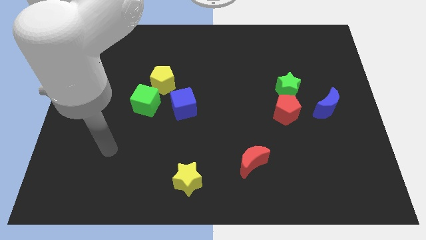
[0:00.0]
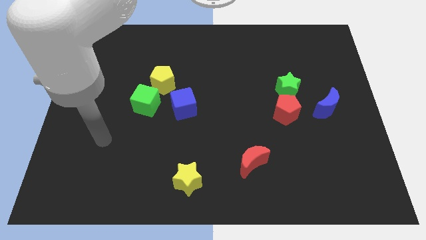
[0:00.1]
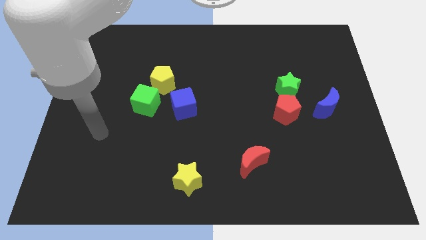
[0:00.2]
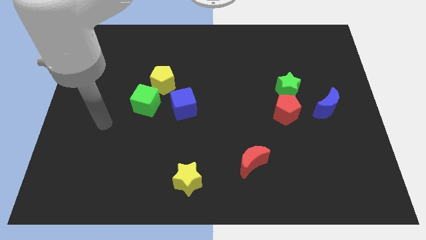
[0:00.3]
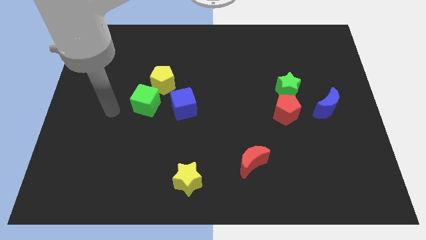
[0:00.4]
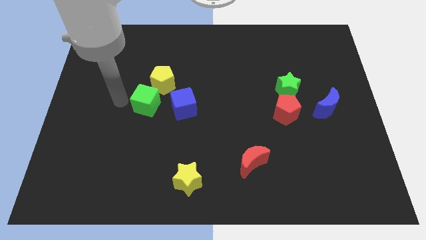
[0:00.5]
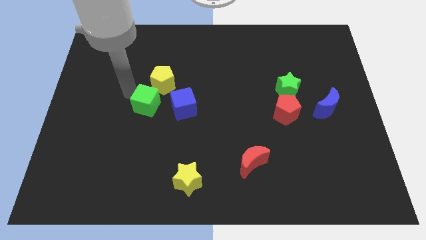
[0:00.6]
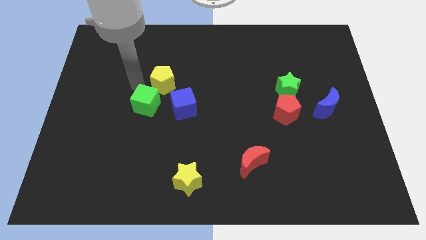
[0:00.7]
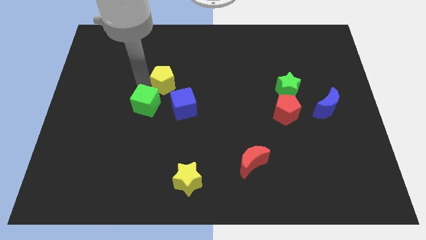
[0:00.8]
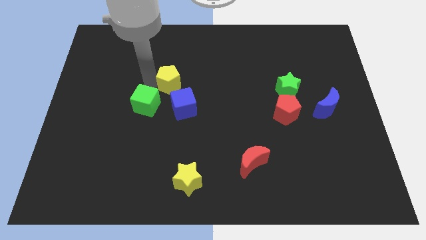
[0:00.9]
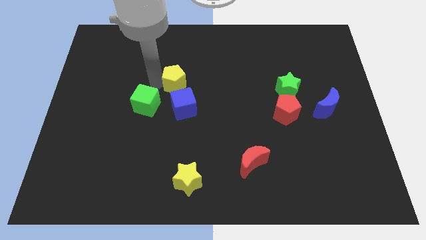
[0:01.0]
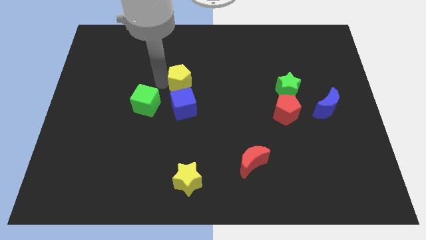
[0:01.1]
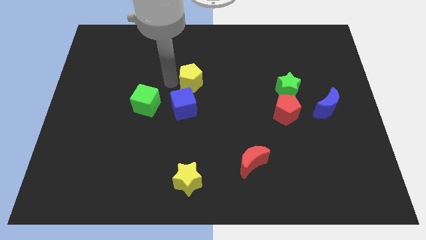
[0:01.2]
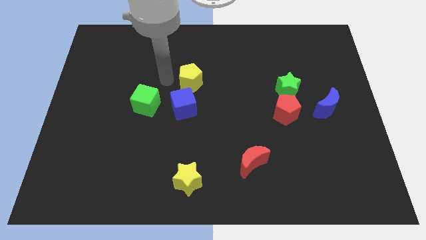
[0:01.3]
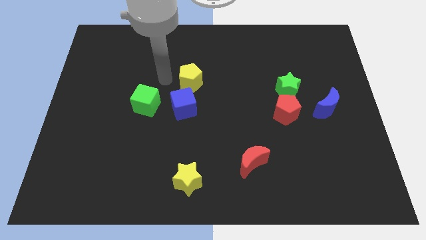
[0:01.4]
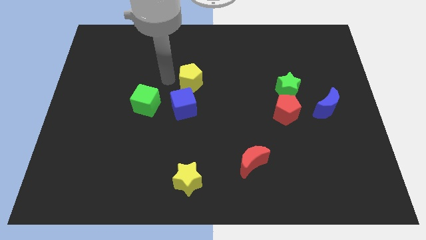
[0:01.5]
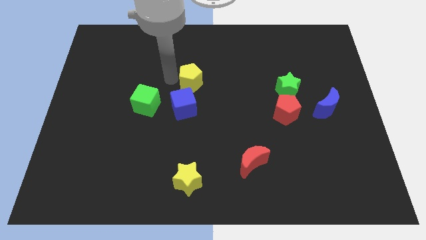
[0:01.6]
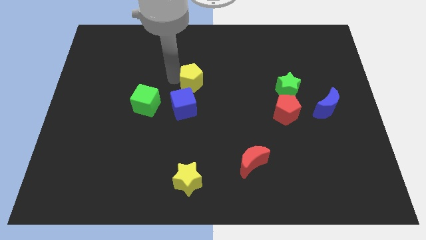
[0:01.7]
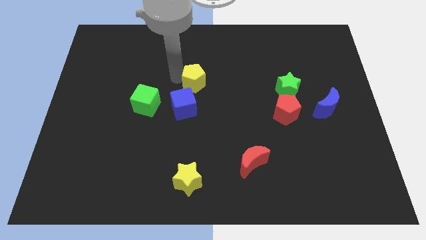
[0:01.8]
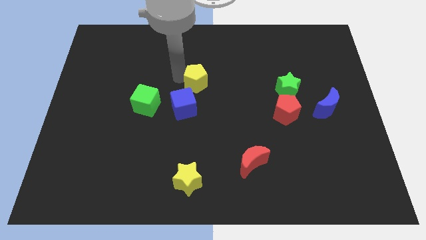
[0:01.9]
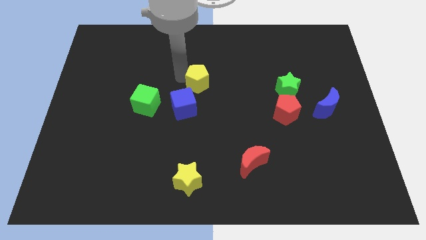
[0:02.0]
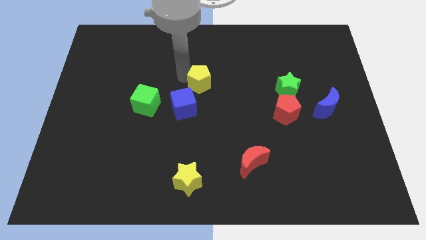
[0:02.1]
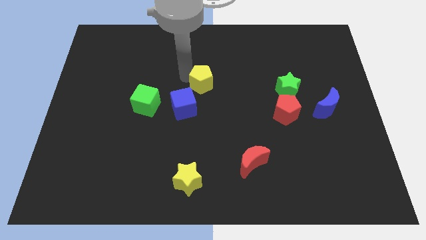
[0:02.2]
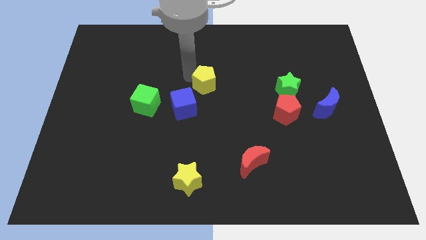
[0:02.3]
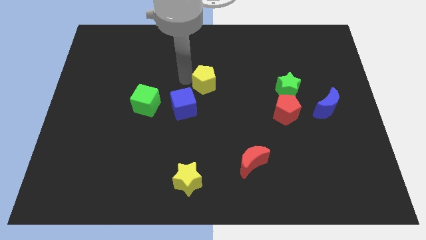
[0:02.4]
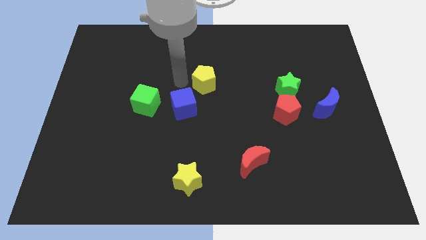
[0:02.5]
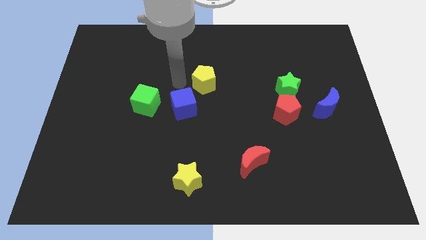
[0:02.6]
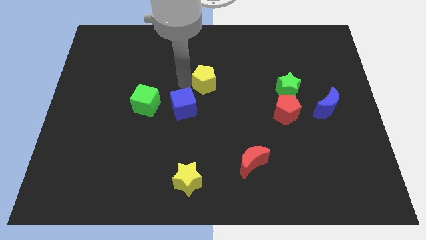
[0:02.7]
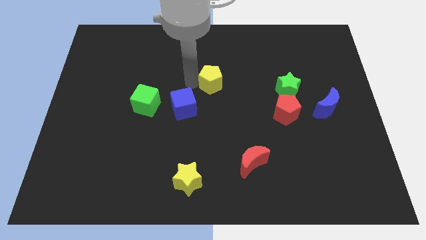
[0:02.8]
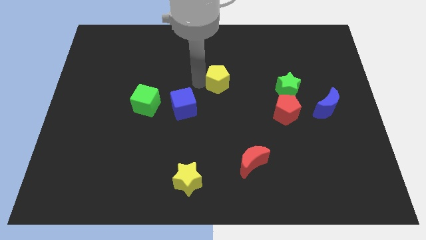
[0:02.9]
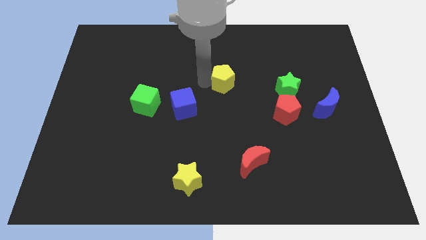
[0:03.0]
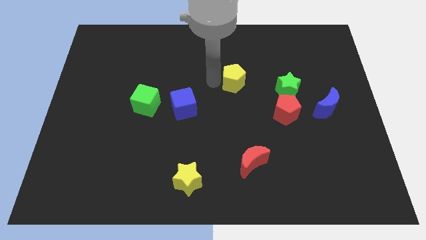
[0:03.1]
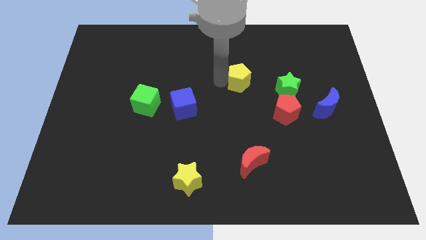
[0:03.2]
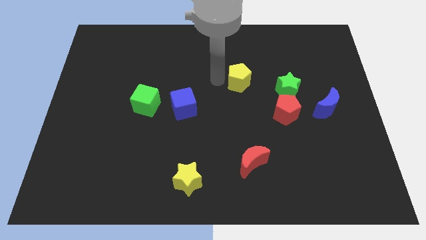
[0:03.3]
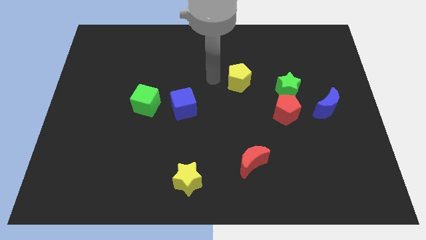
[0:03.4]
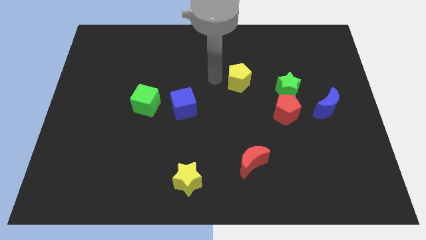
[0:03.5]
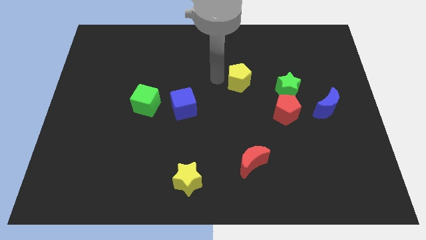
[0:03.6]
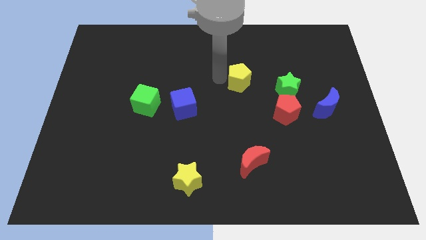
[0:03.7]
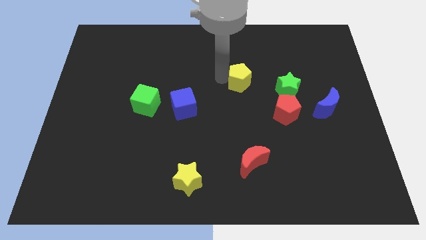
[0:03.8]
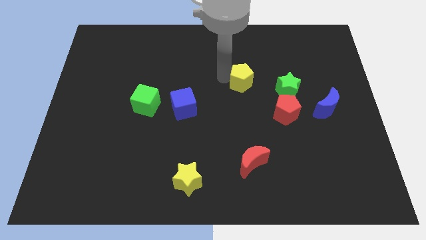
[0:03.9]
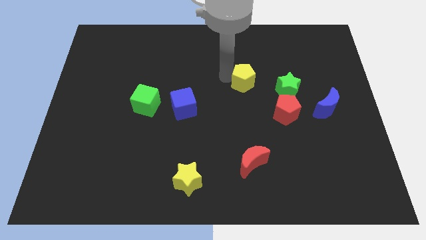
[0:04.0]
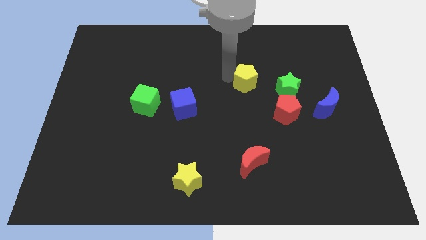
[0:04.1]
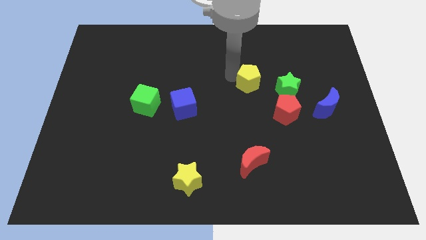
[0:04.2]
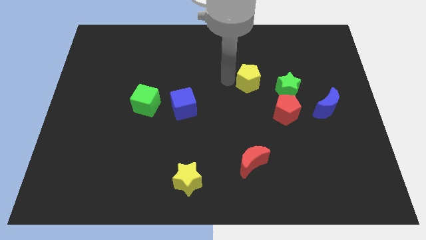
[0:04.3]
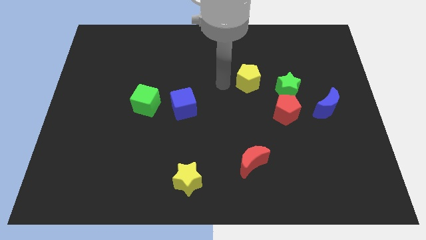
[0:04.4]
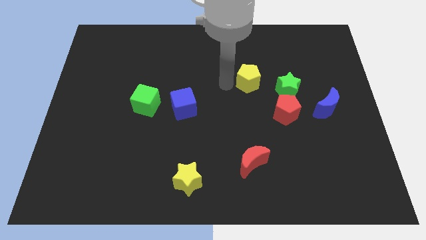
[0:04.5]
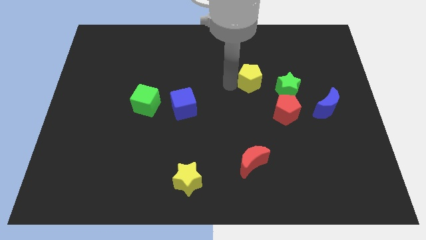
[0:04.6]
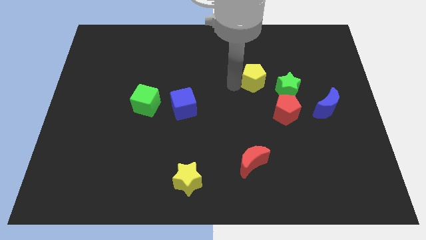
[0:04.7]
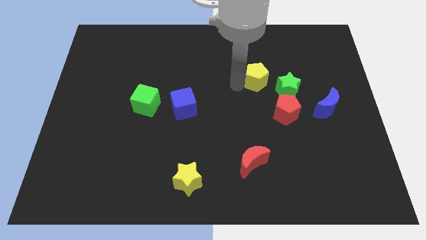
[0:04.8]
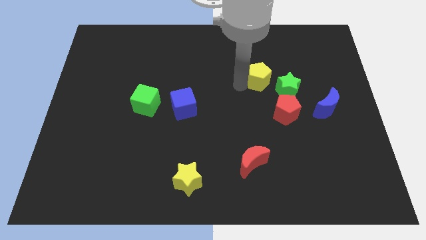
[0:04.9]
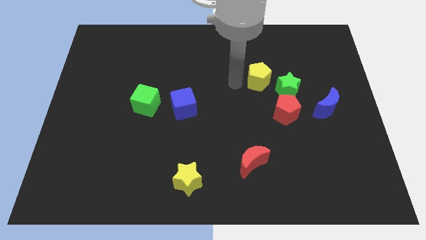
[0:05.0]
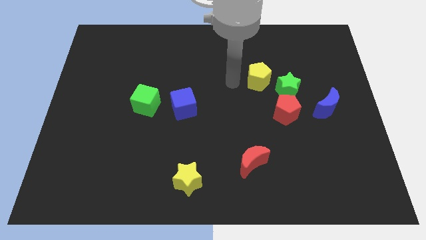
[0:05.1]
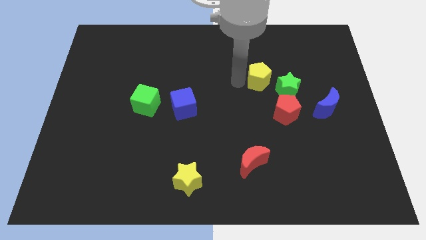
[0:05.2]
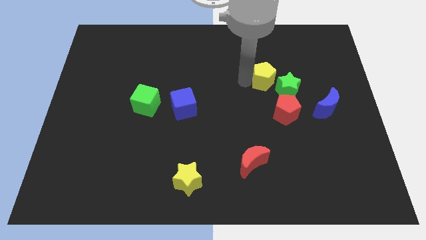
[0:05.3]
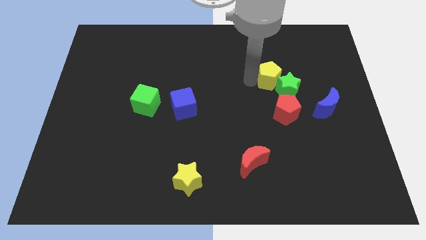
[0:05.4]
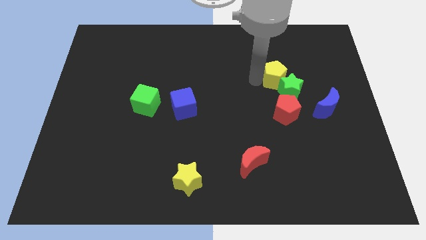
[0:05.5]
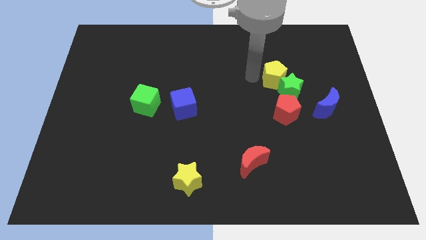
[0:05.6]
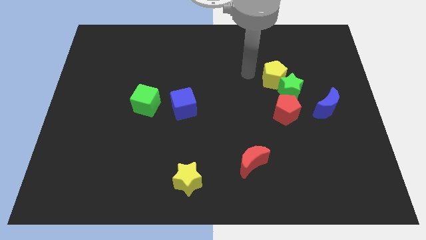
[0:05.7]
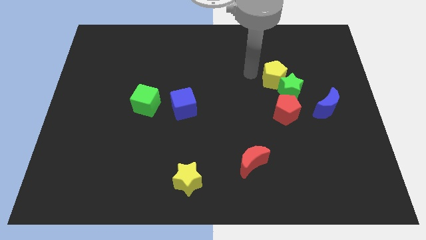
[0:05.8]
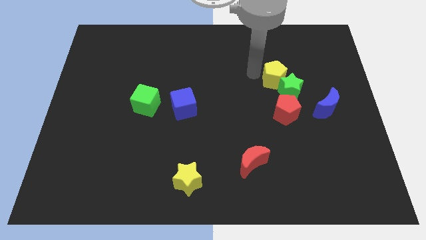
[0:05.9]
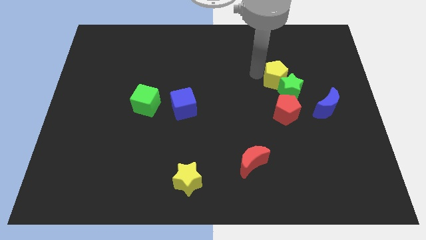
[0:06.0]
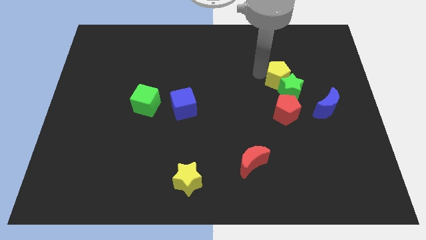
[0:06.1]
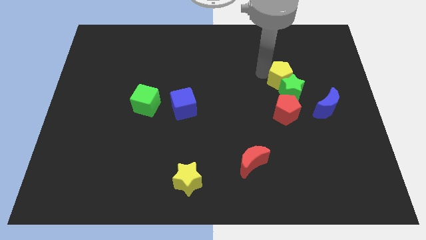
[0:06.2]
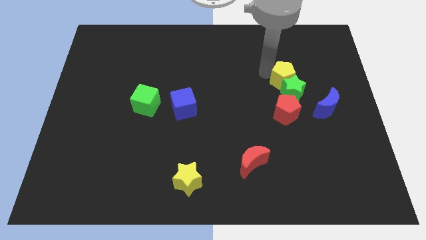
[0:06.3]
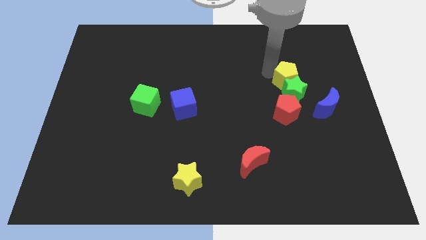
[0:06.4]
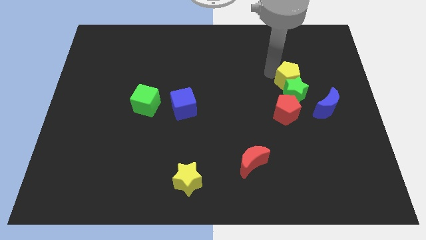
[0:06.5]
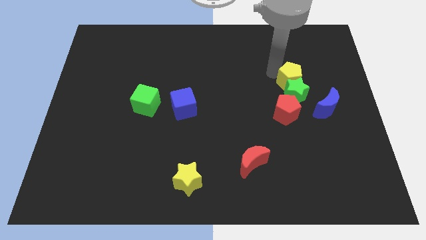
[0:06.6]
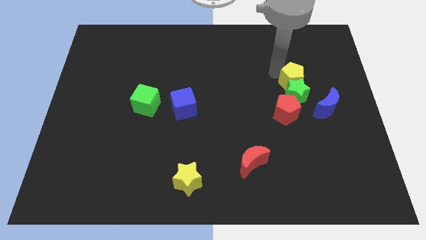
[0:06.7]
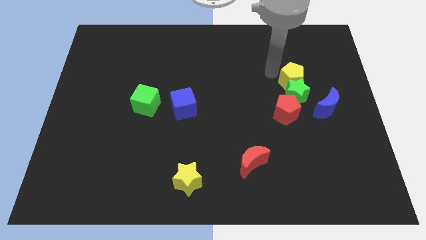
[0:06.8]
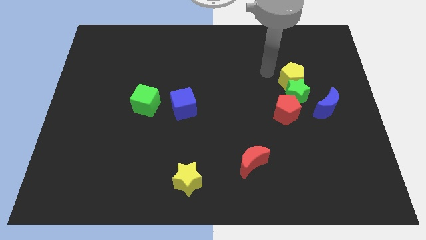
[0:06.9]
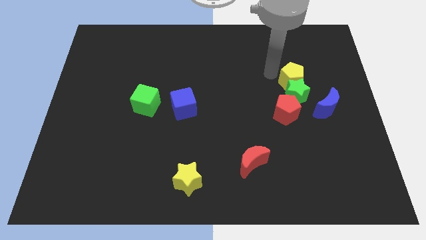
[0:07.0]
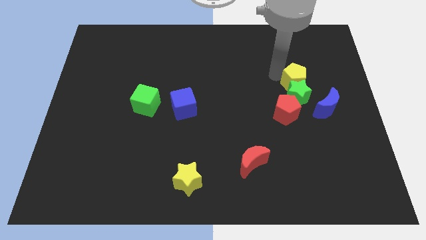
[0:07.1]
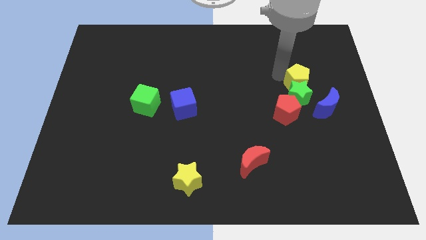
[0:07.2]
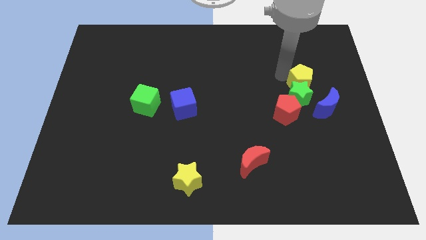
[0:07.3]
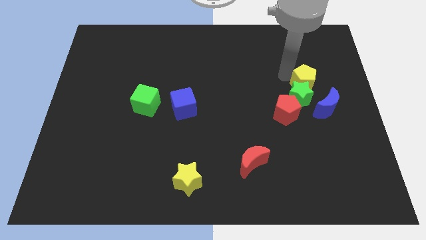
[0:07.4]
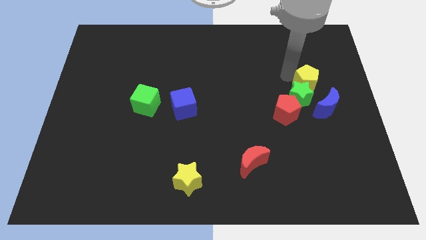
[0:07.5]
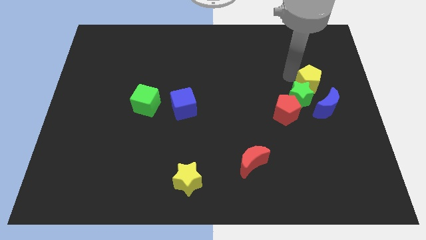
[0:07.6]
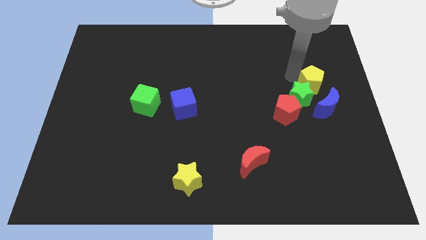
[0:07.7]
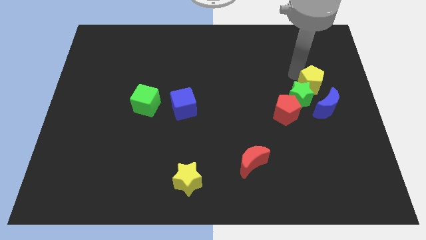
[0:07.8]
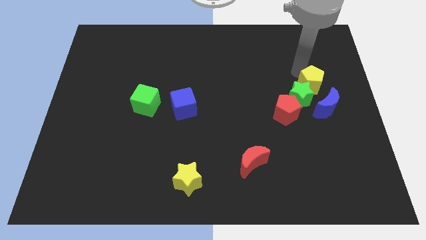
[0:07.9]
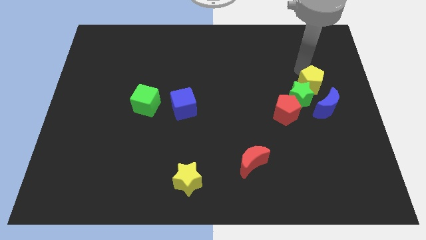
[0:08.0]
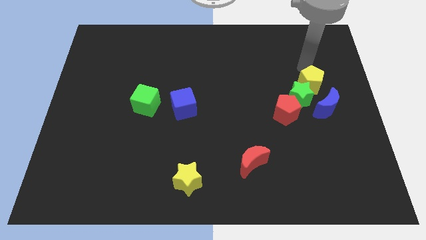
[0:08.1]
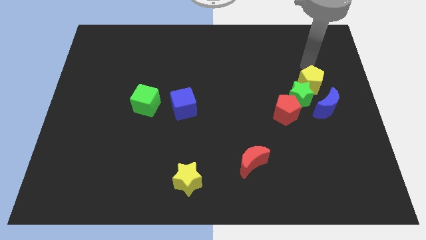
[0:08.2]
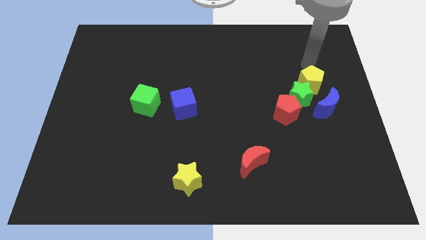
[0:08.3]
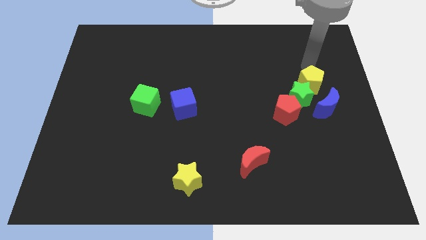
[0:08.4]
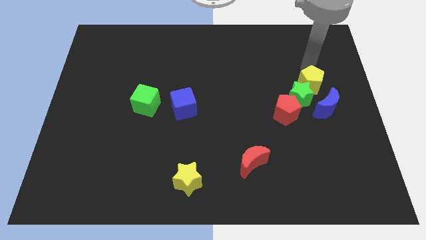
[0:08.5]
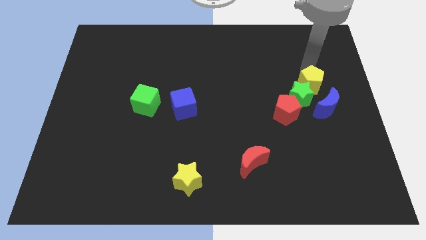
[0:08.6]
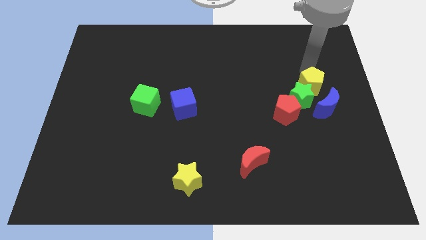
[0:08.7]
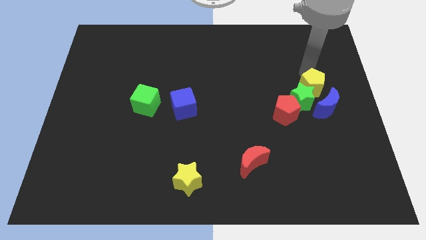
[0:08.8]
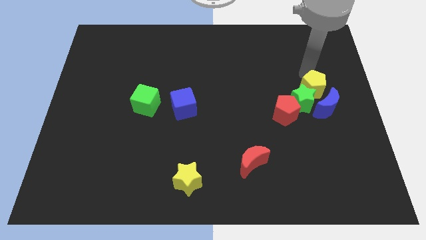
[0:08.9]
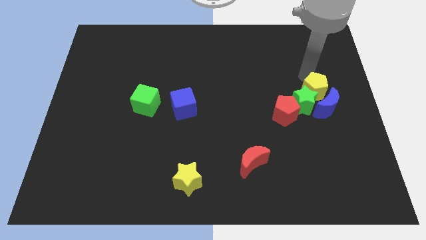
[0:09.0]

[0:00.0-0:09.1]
move the yellow pentagon to the blue moon
